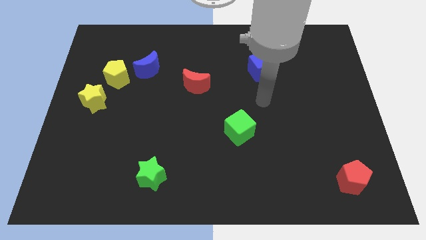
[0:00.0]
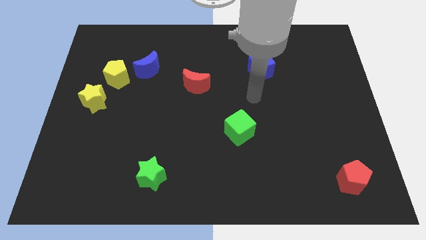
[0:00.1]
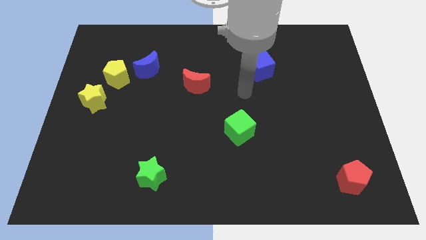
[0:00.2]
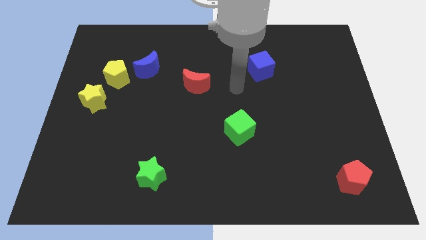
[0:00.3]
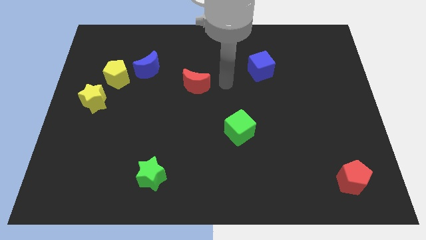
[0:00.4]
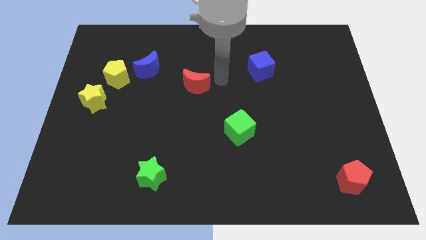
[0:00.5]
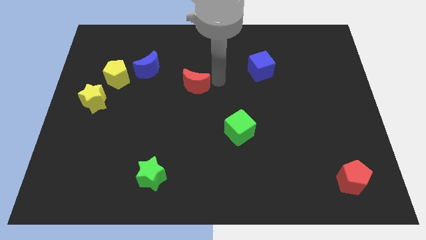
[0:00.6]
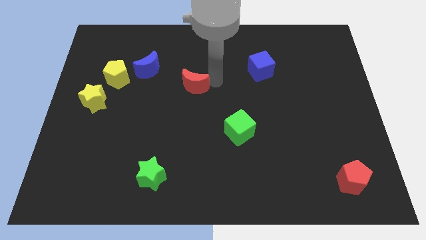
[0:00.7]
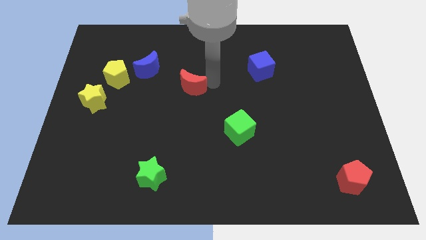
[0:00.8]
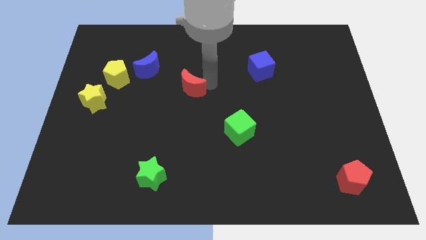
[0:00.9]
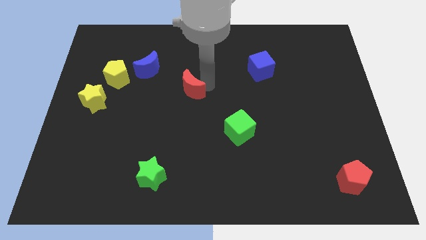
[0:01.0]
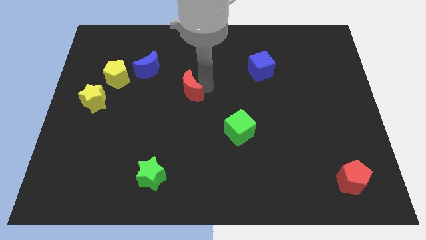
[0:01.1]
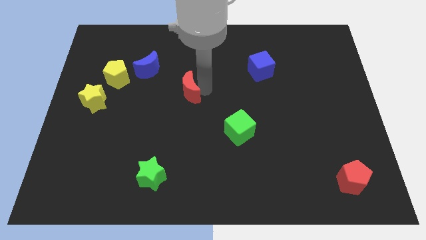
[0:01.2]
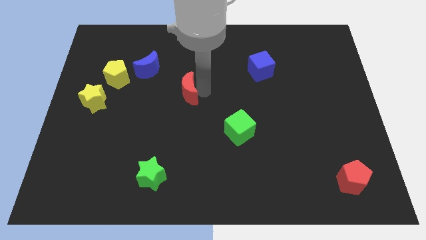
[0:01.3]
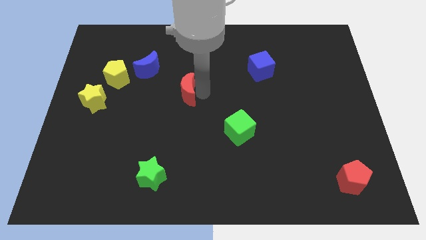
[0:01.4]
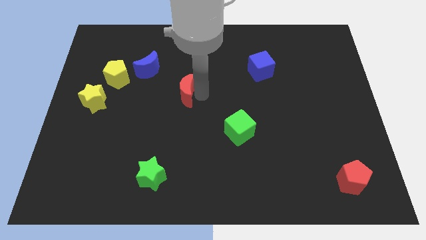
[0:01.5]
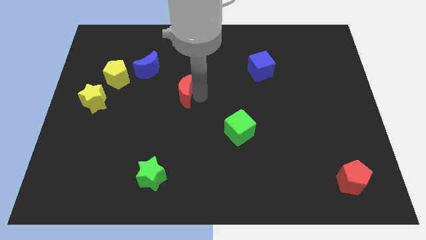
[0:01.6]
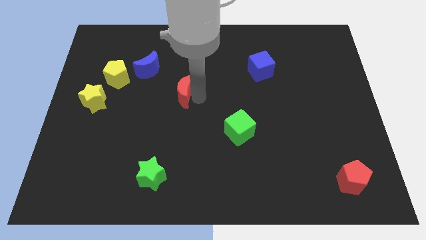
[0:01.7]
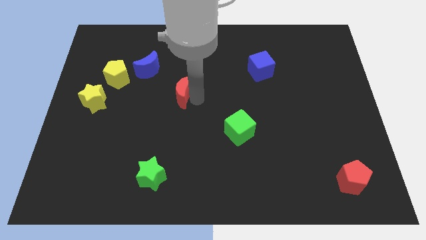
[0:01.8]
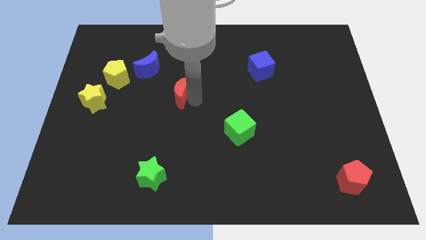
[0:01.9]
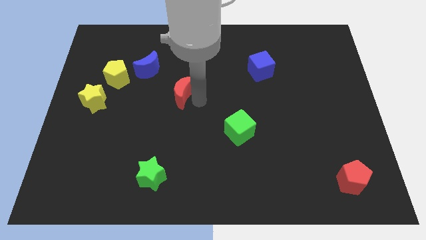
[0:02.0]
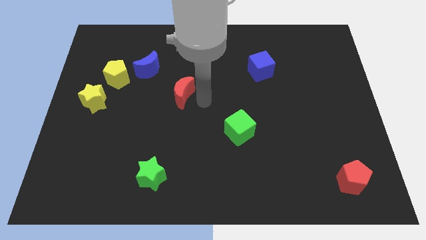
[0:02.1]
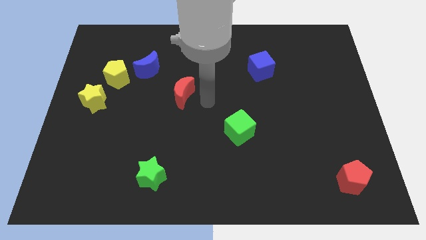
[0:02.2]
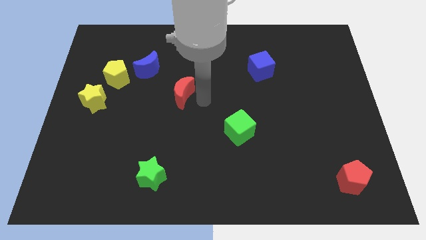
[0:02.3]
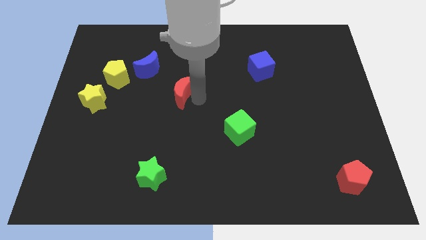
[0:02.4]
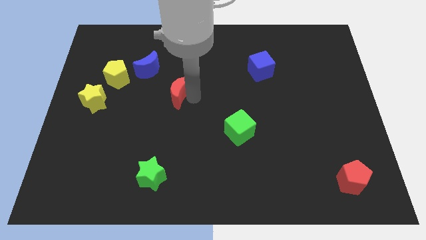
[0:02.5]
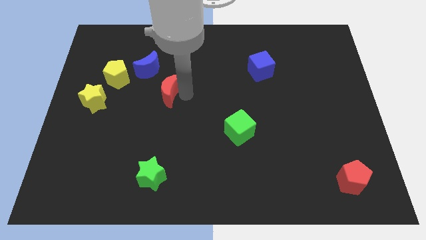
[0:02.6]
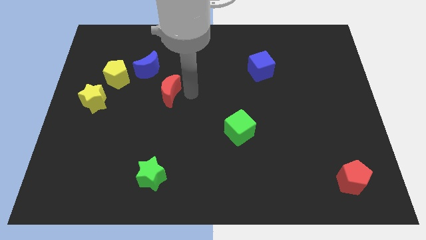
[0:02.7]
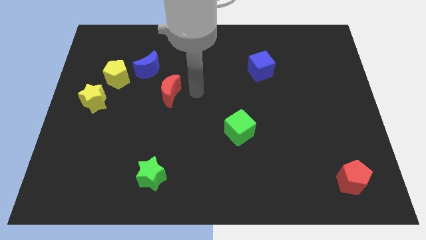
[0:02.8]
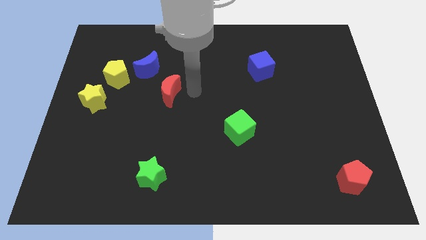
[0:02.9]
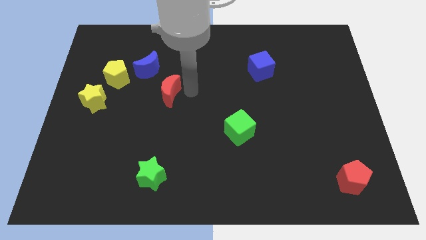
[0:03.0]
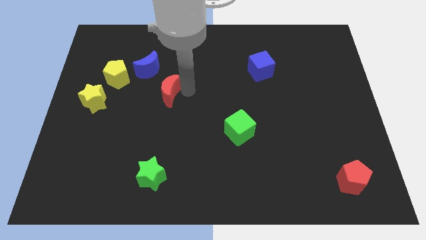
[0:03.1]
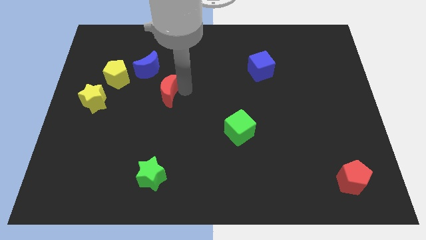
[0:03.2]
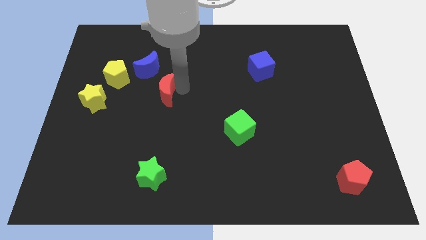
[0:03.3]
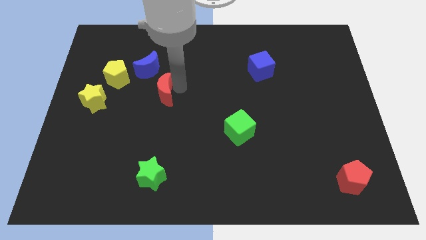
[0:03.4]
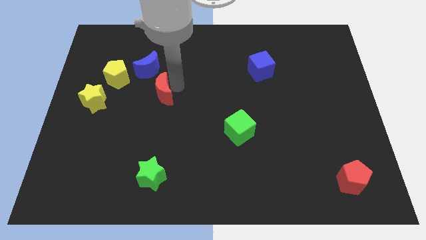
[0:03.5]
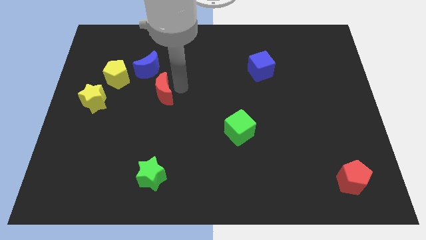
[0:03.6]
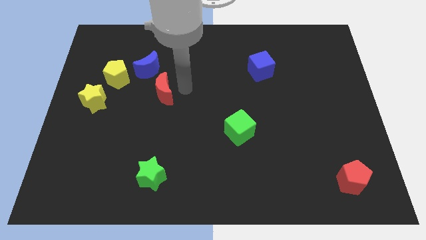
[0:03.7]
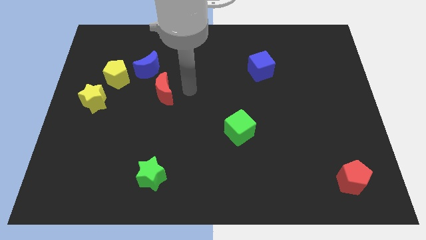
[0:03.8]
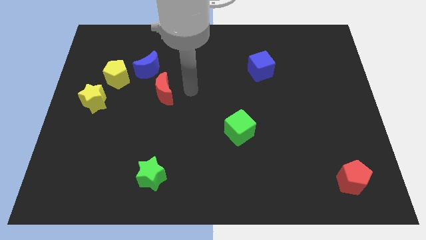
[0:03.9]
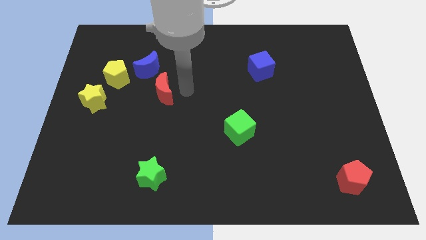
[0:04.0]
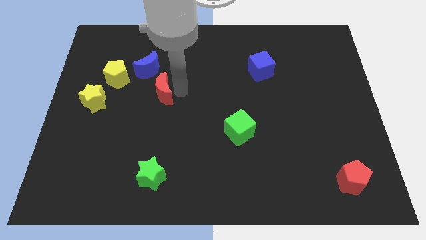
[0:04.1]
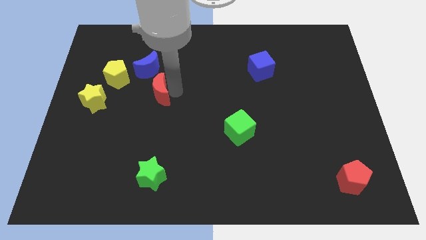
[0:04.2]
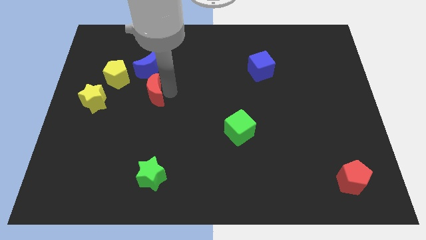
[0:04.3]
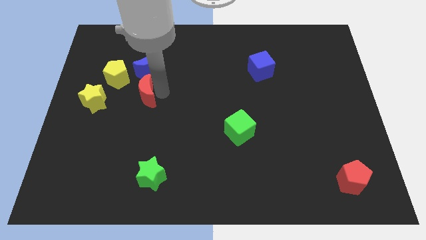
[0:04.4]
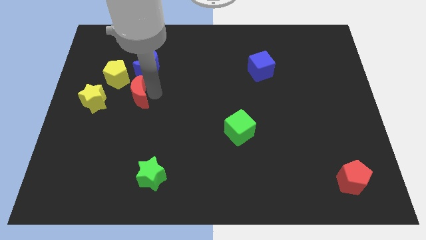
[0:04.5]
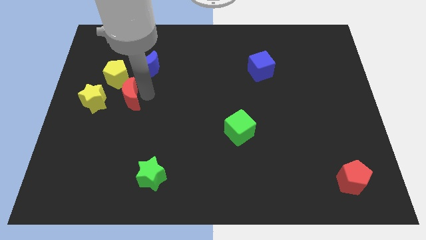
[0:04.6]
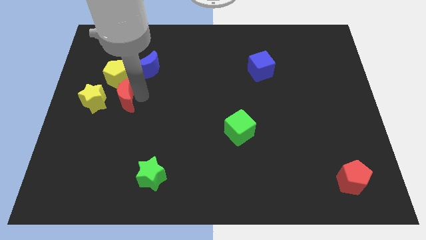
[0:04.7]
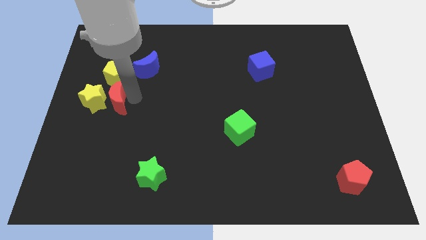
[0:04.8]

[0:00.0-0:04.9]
push the red moon towards the yellow star

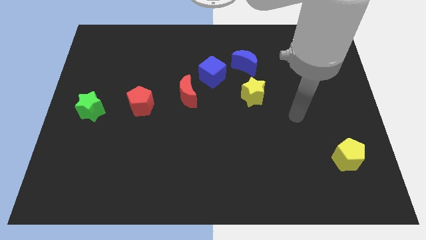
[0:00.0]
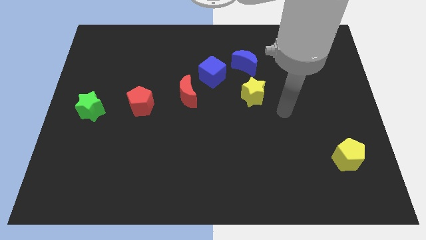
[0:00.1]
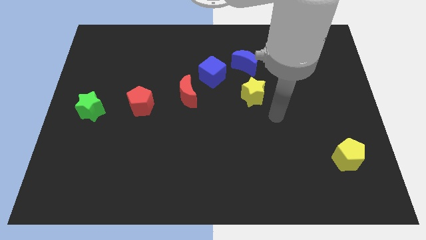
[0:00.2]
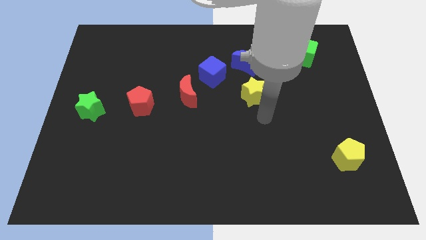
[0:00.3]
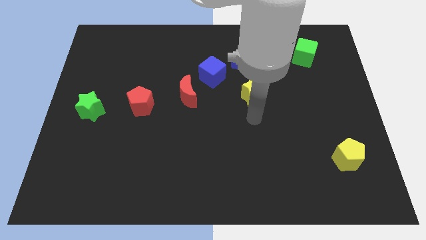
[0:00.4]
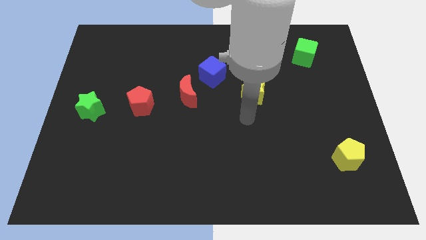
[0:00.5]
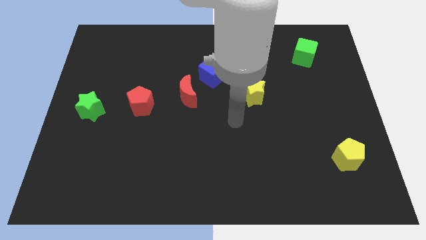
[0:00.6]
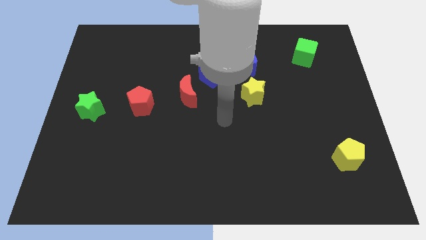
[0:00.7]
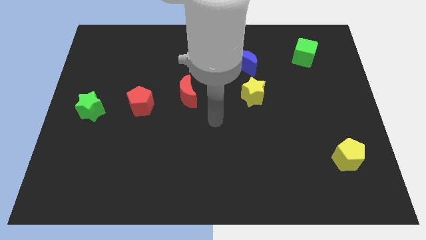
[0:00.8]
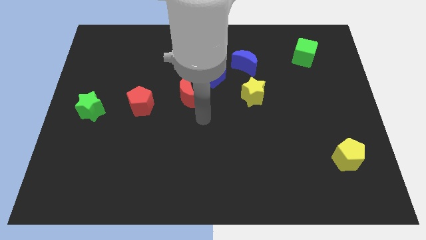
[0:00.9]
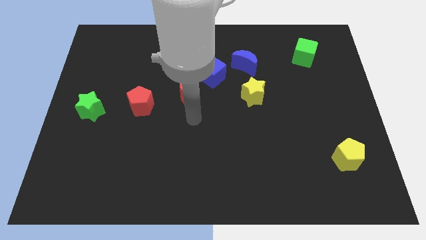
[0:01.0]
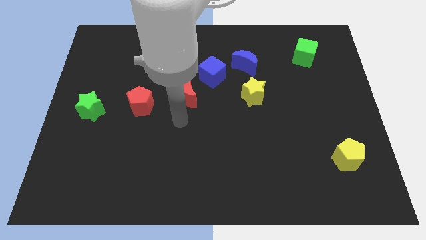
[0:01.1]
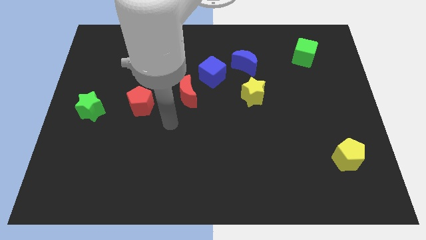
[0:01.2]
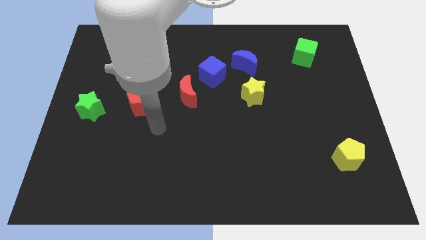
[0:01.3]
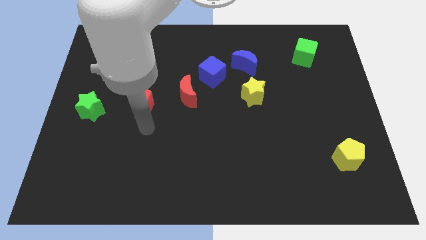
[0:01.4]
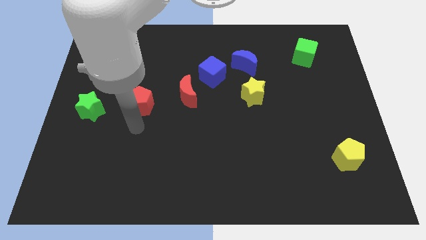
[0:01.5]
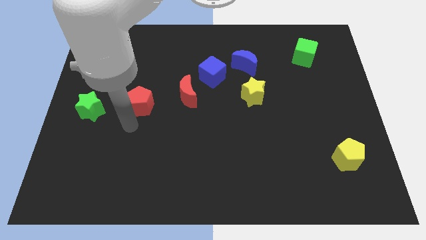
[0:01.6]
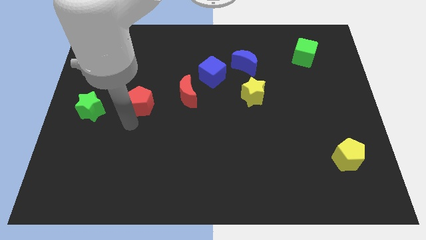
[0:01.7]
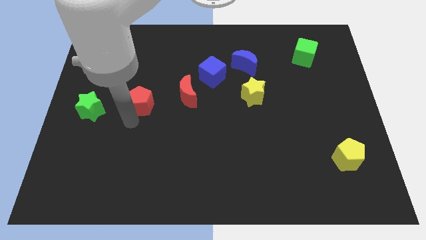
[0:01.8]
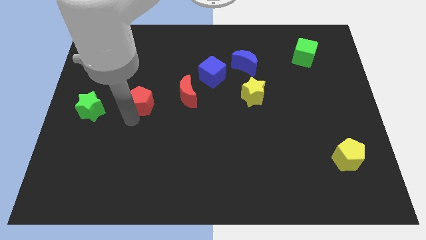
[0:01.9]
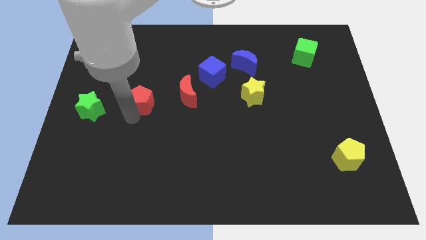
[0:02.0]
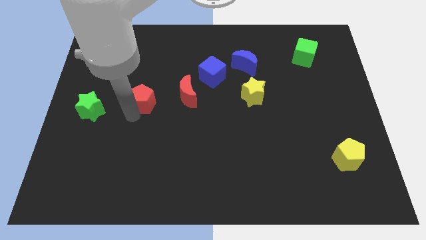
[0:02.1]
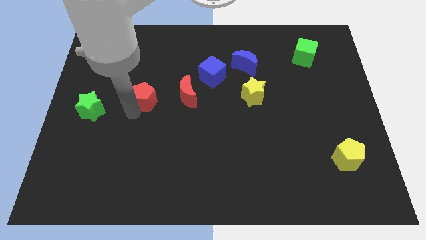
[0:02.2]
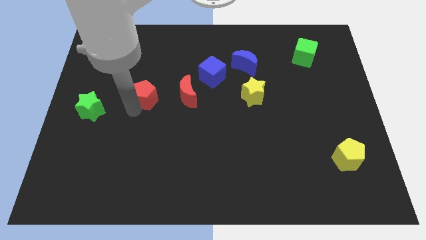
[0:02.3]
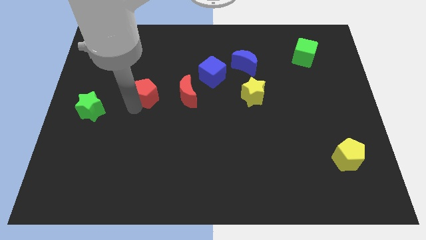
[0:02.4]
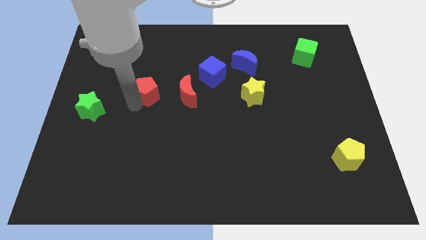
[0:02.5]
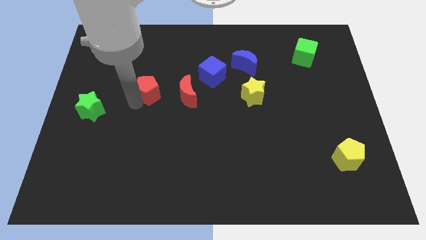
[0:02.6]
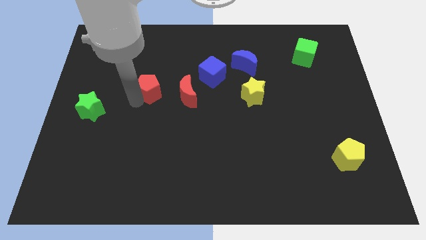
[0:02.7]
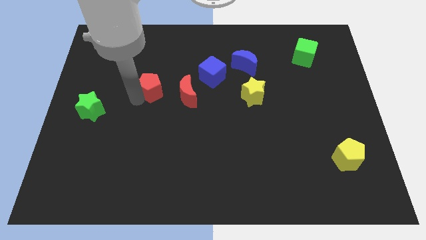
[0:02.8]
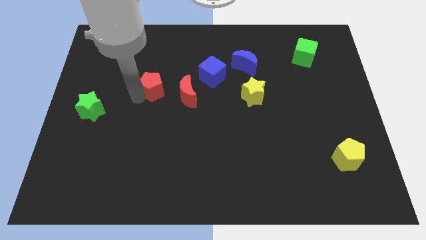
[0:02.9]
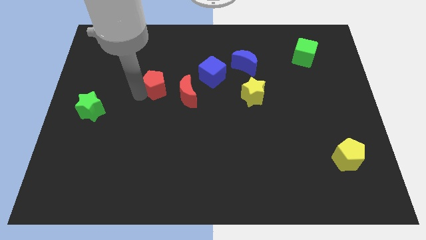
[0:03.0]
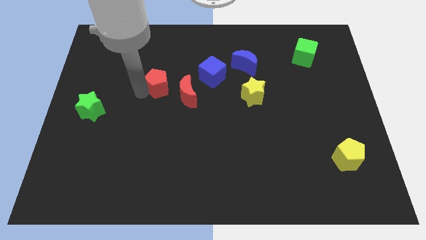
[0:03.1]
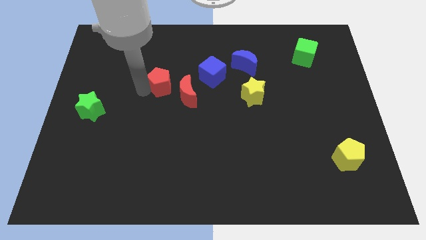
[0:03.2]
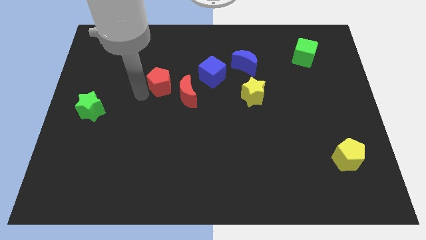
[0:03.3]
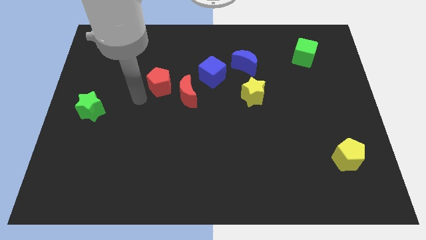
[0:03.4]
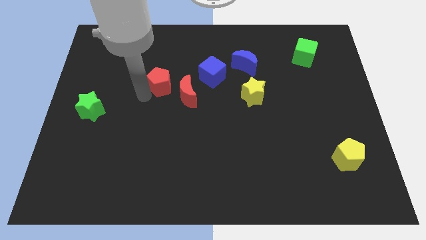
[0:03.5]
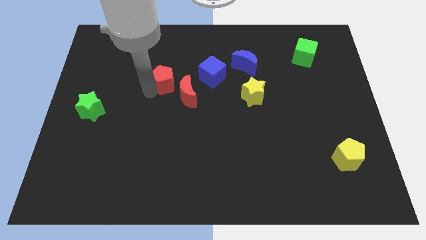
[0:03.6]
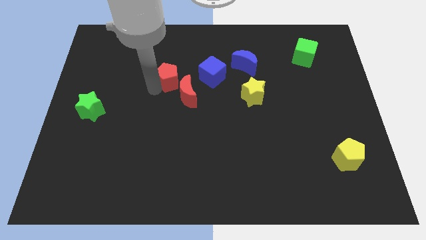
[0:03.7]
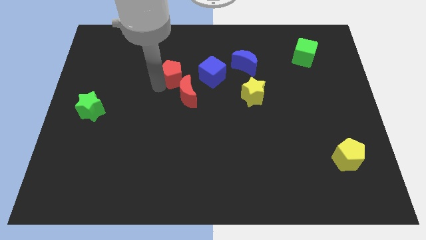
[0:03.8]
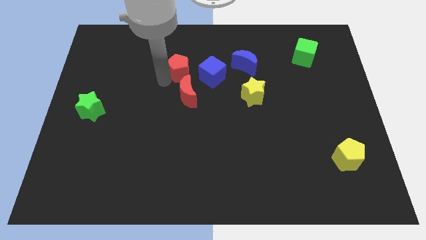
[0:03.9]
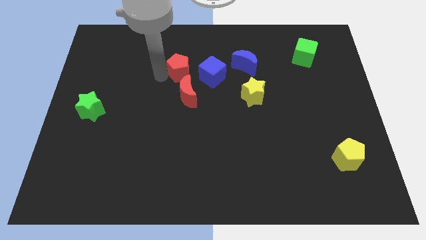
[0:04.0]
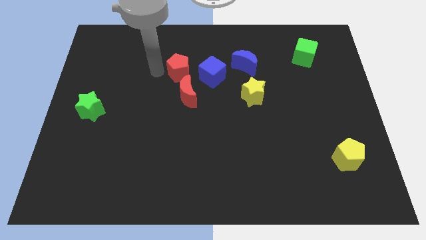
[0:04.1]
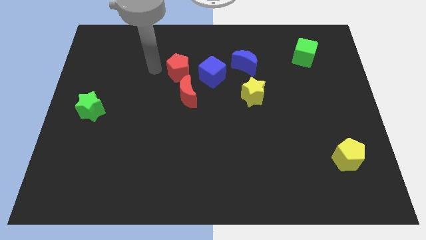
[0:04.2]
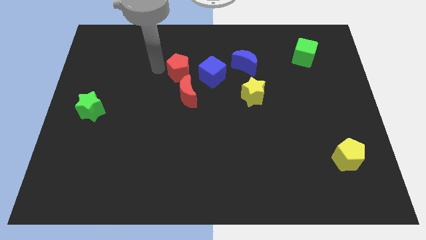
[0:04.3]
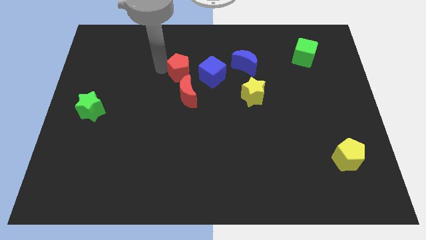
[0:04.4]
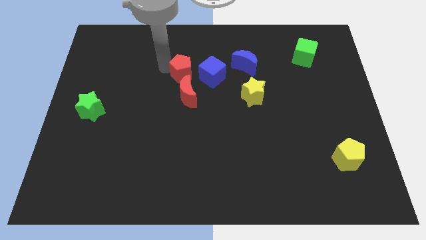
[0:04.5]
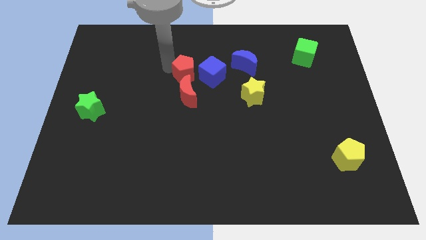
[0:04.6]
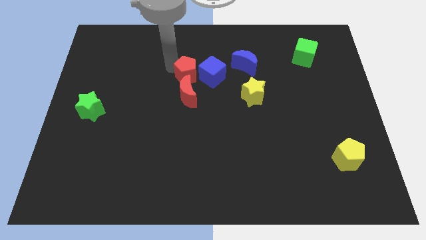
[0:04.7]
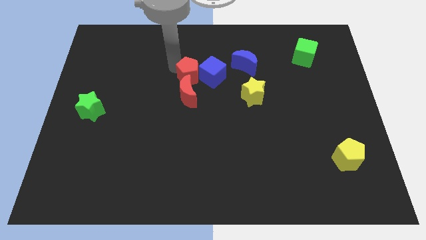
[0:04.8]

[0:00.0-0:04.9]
slide the red pentagon towards the blue cube
